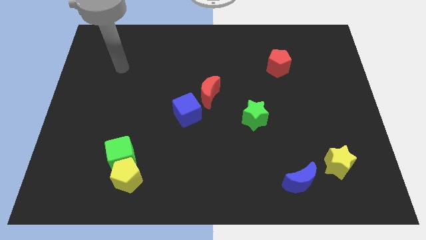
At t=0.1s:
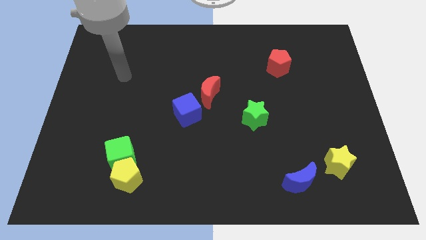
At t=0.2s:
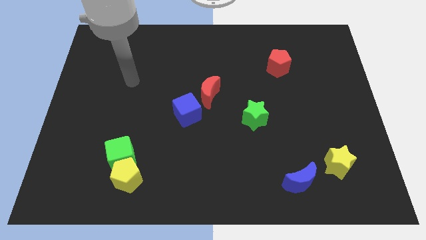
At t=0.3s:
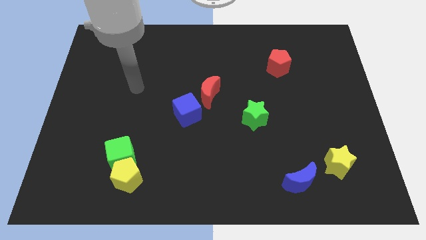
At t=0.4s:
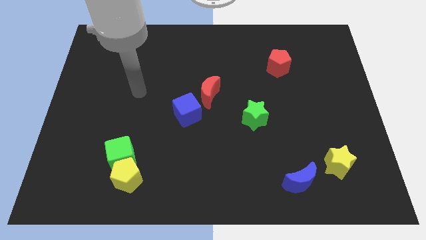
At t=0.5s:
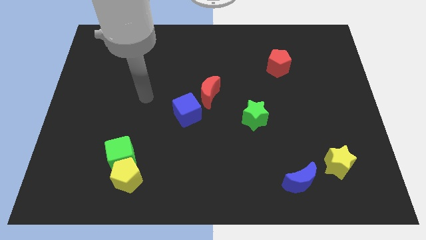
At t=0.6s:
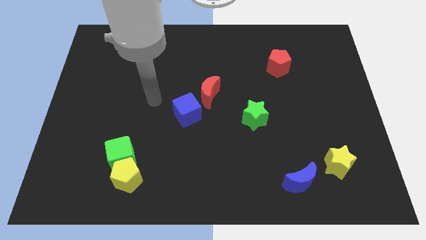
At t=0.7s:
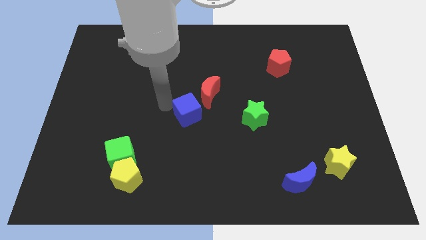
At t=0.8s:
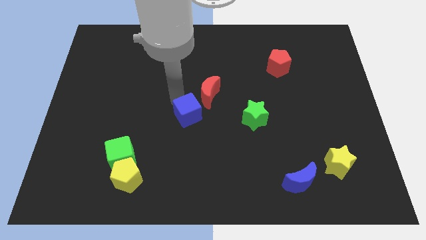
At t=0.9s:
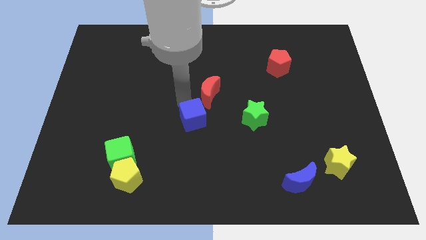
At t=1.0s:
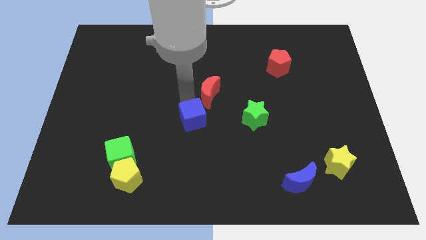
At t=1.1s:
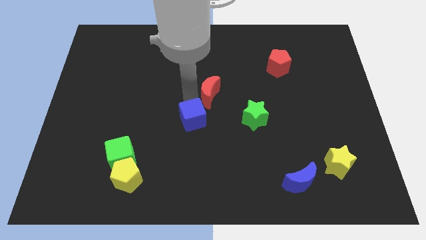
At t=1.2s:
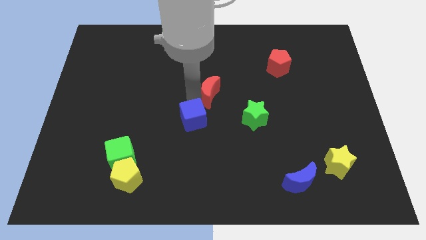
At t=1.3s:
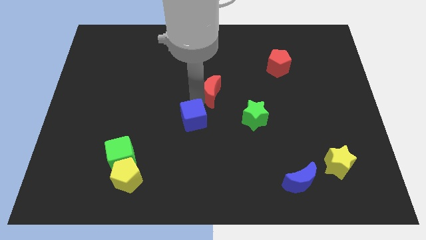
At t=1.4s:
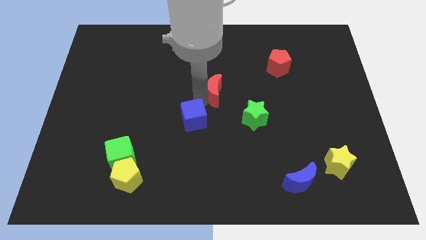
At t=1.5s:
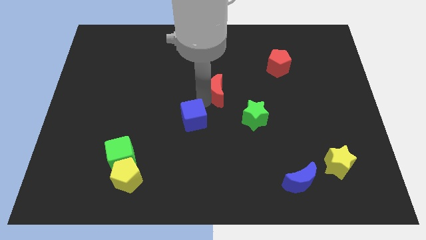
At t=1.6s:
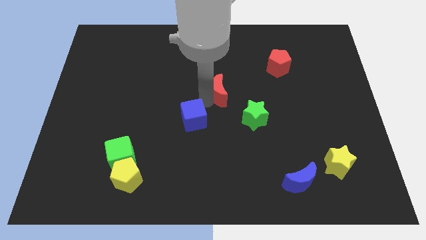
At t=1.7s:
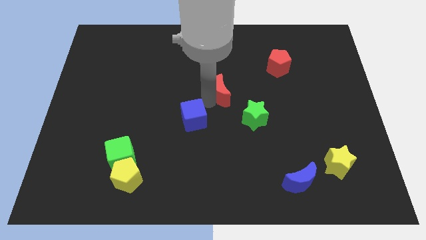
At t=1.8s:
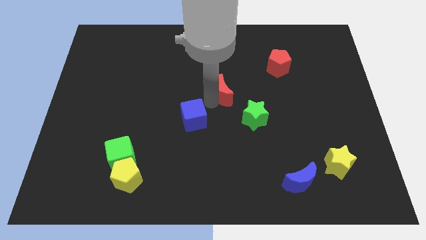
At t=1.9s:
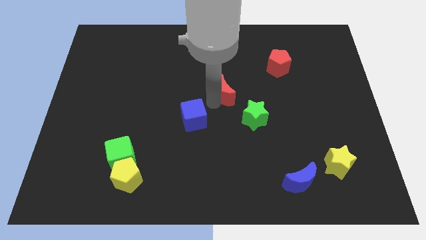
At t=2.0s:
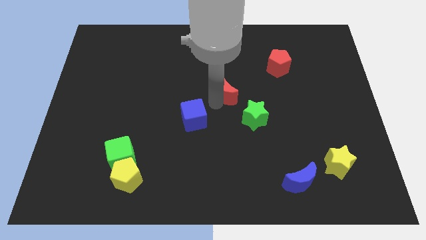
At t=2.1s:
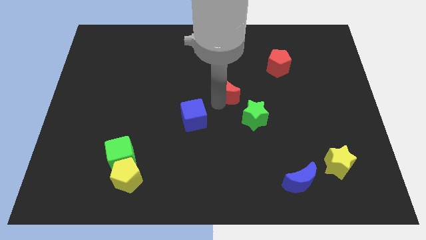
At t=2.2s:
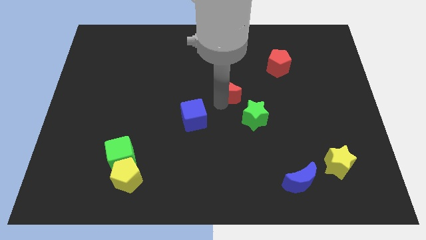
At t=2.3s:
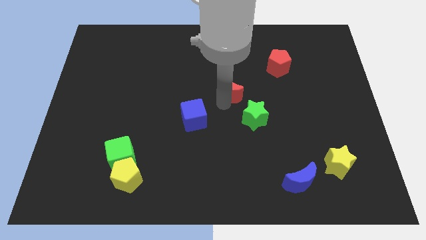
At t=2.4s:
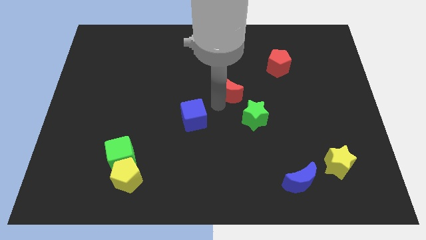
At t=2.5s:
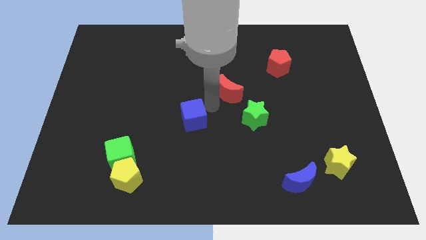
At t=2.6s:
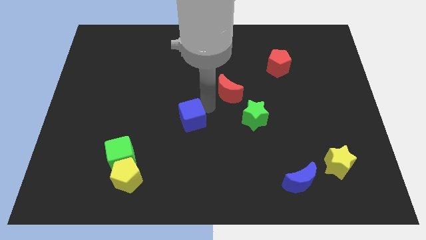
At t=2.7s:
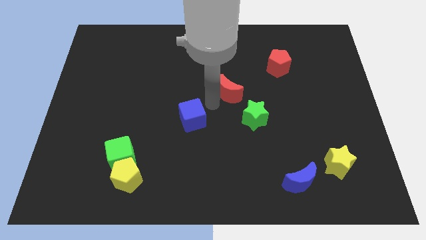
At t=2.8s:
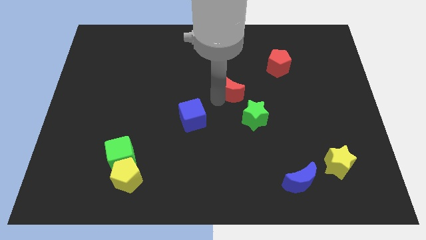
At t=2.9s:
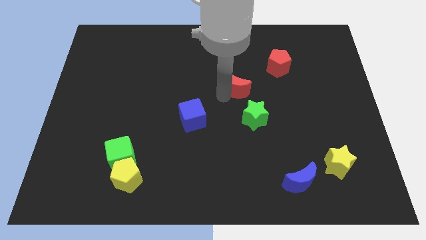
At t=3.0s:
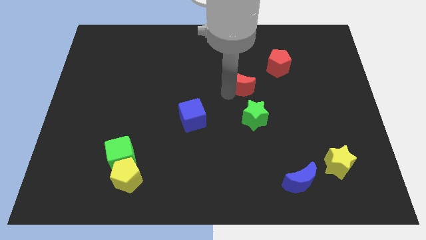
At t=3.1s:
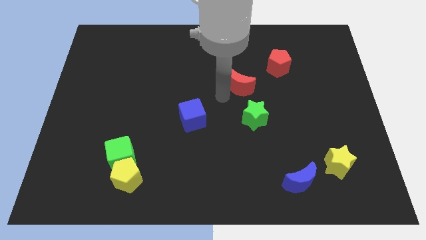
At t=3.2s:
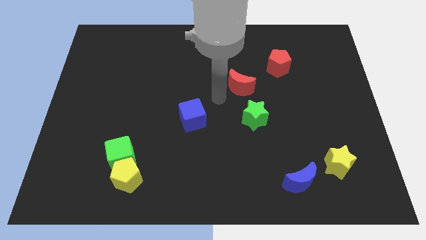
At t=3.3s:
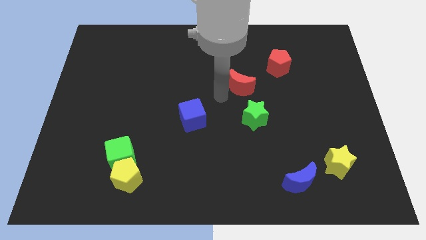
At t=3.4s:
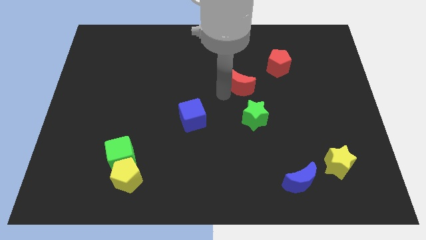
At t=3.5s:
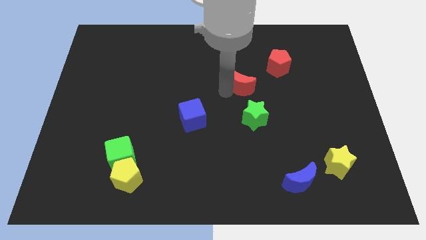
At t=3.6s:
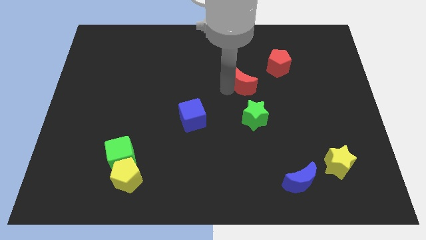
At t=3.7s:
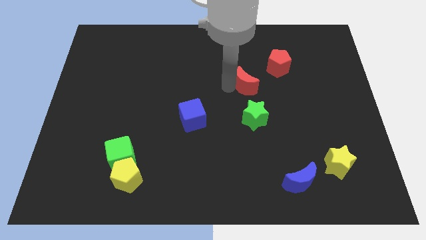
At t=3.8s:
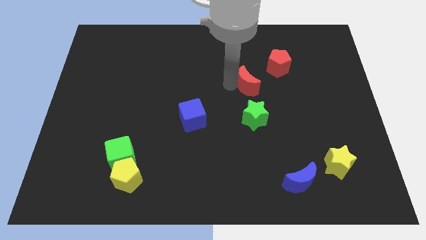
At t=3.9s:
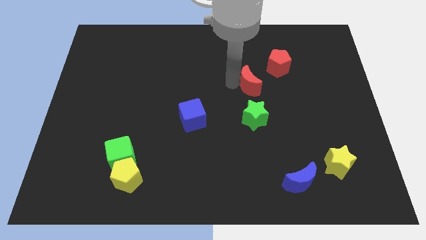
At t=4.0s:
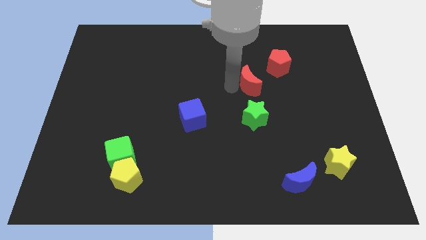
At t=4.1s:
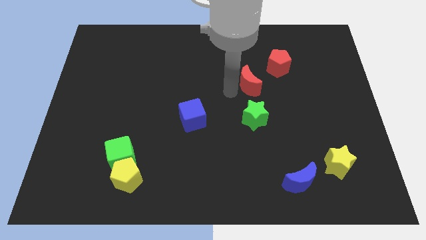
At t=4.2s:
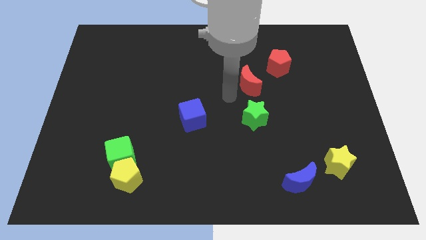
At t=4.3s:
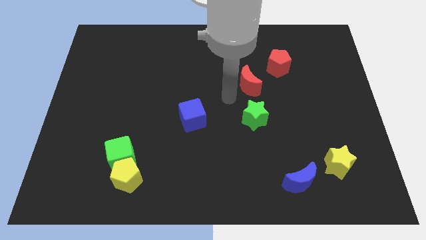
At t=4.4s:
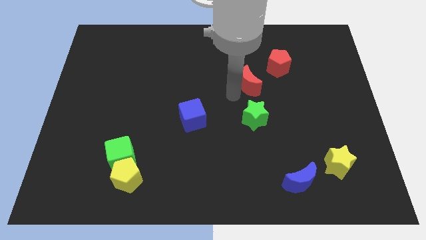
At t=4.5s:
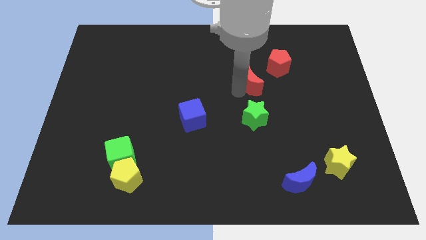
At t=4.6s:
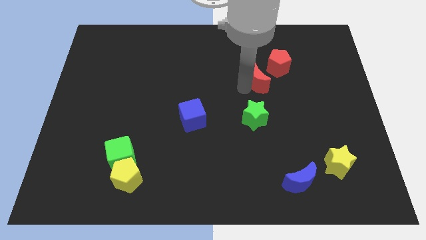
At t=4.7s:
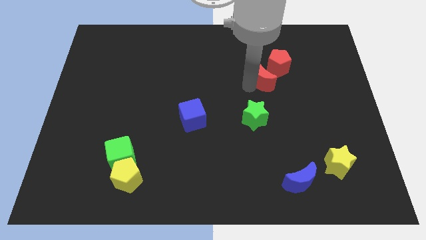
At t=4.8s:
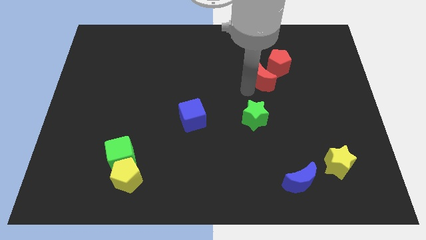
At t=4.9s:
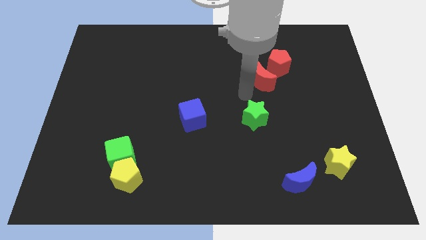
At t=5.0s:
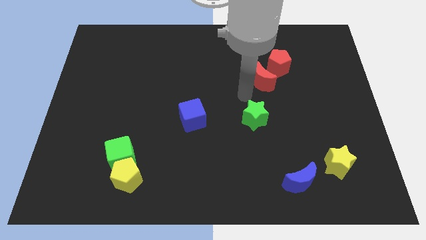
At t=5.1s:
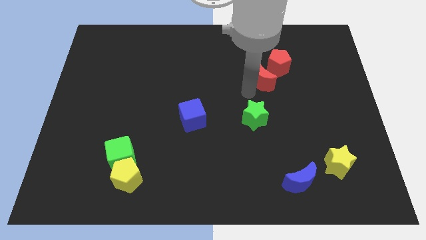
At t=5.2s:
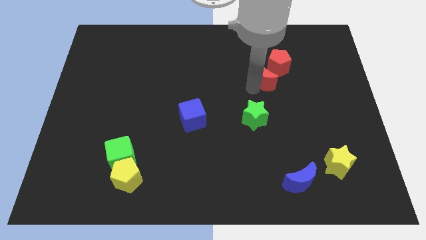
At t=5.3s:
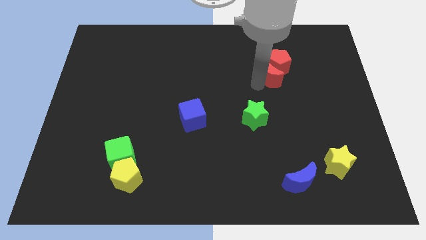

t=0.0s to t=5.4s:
push the red moon close to the red pentagon

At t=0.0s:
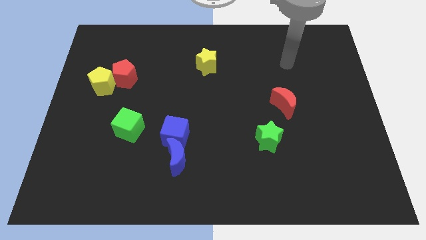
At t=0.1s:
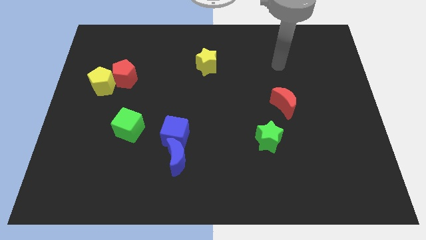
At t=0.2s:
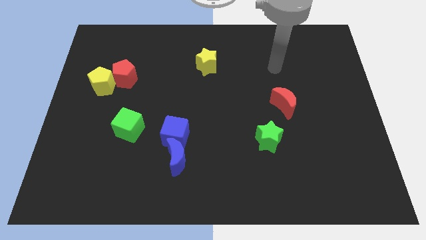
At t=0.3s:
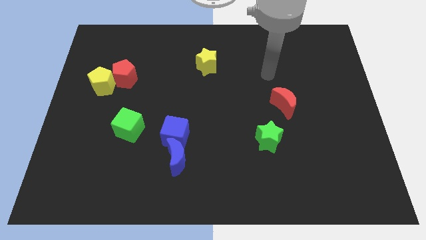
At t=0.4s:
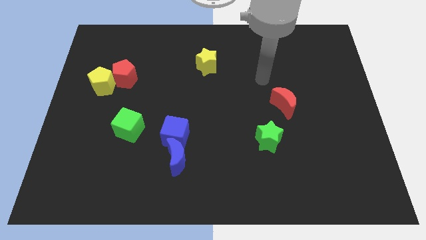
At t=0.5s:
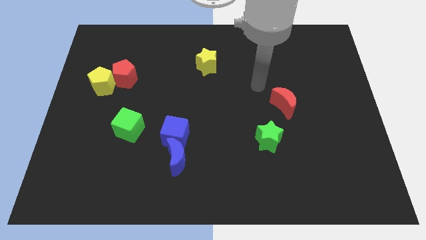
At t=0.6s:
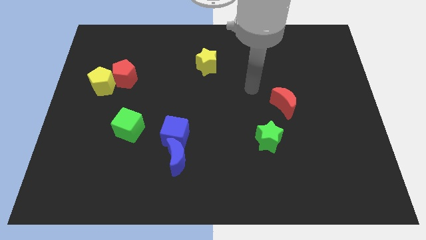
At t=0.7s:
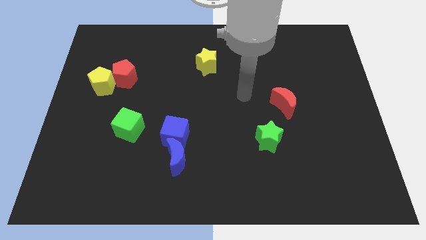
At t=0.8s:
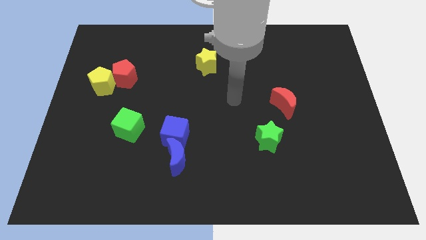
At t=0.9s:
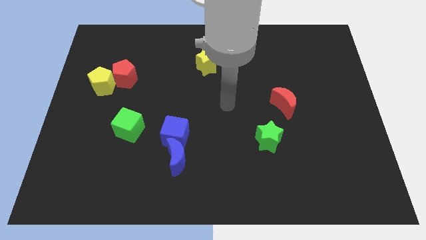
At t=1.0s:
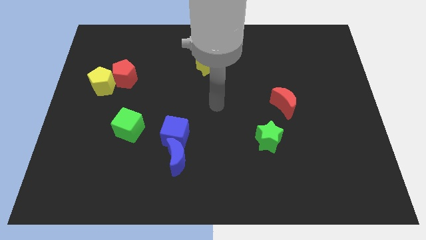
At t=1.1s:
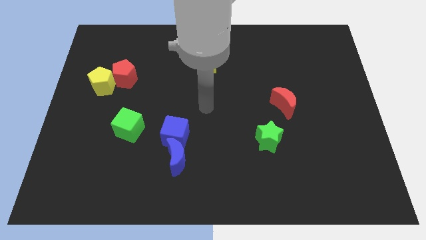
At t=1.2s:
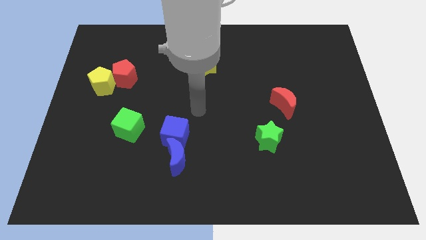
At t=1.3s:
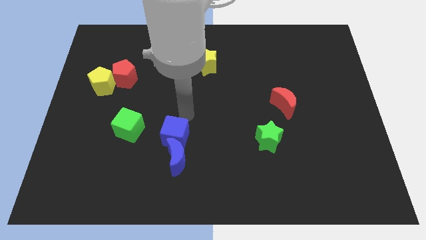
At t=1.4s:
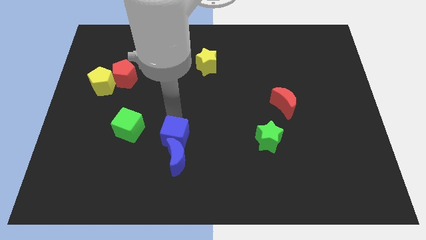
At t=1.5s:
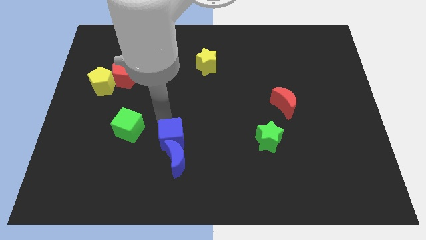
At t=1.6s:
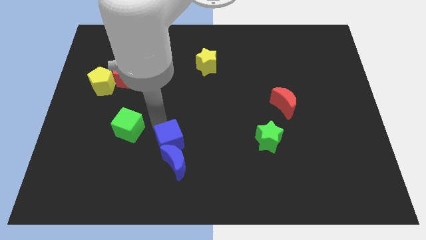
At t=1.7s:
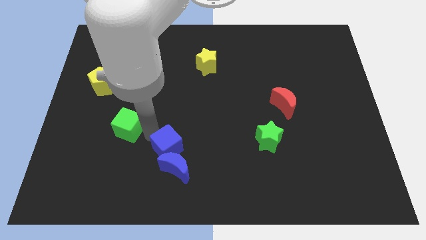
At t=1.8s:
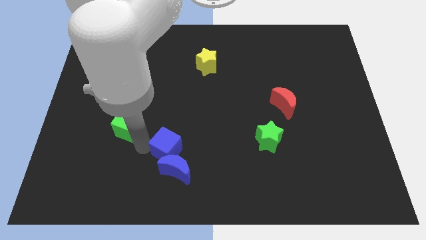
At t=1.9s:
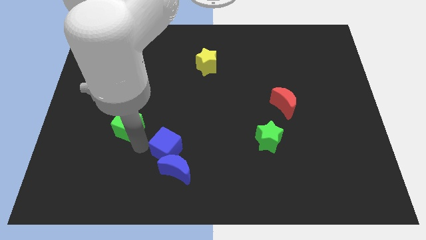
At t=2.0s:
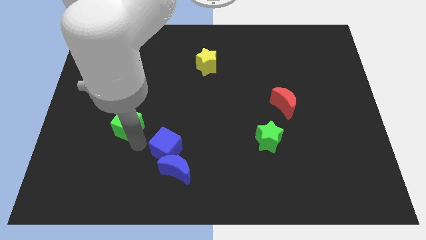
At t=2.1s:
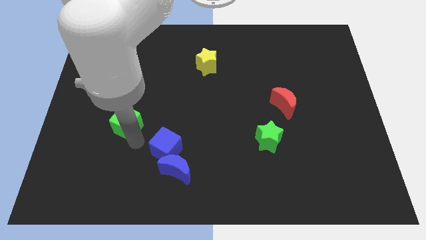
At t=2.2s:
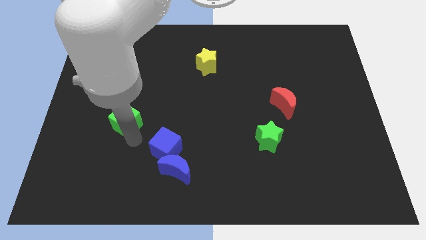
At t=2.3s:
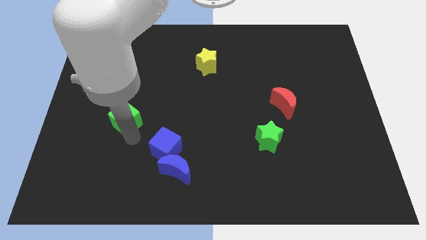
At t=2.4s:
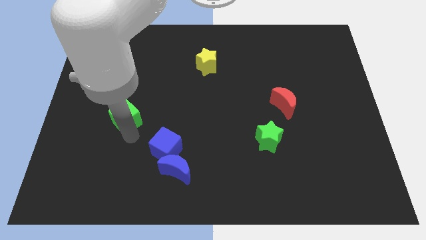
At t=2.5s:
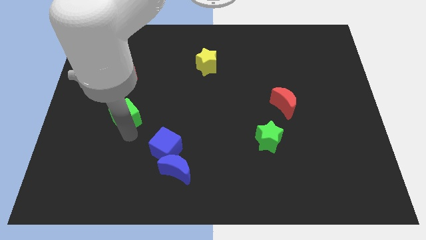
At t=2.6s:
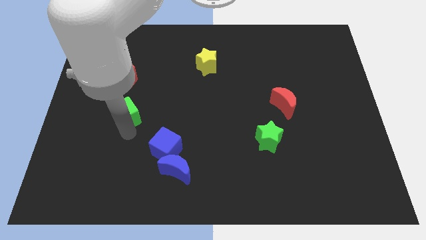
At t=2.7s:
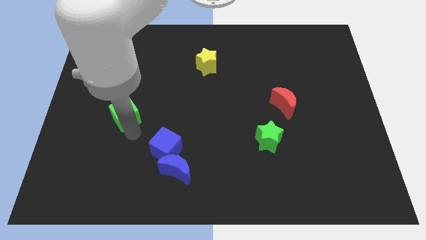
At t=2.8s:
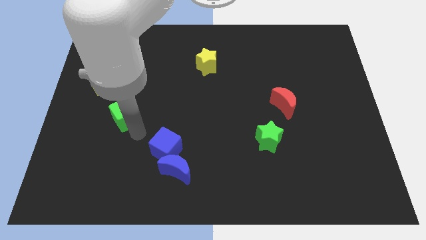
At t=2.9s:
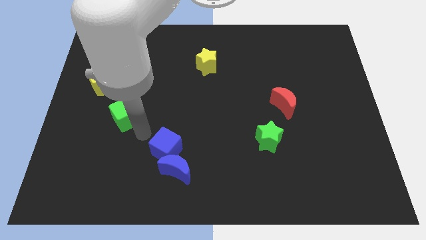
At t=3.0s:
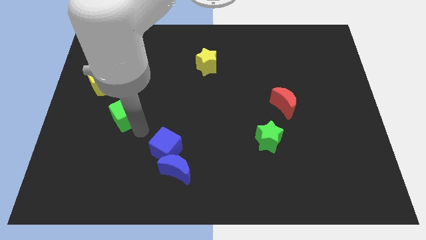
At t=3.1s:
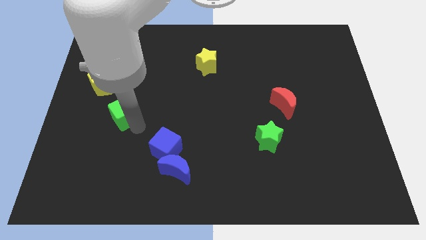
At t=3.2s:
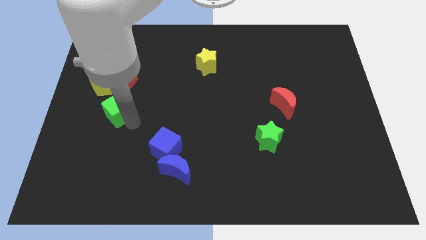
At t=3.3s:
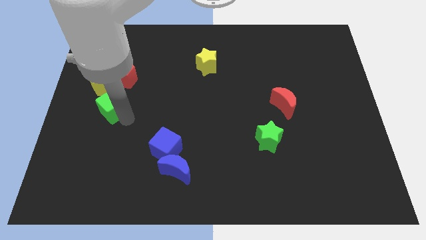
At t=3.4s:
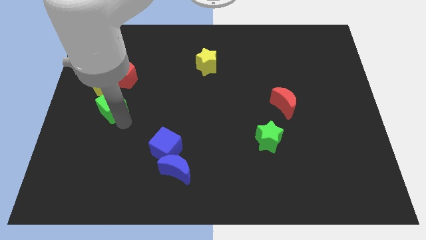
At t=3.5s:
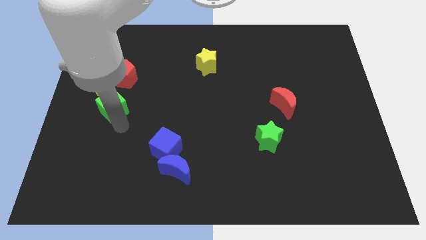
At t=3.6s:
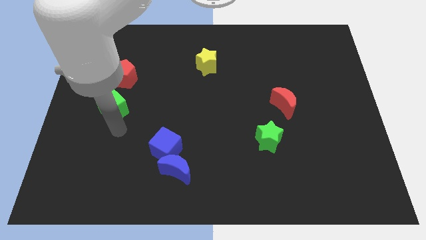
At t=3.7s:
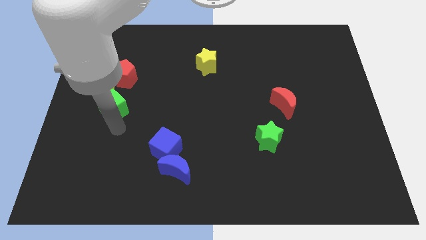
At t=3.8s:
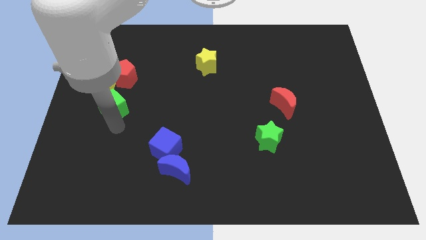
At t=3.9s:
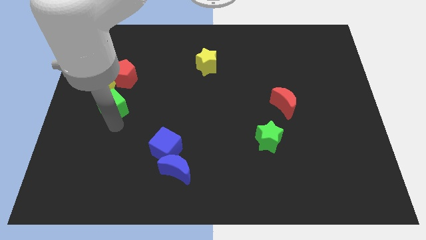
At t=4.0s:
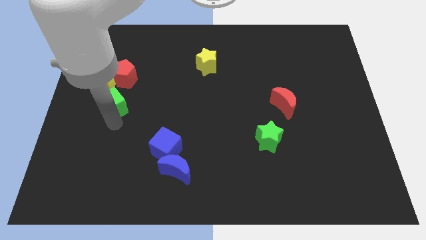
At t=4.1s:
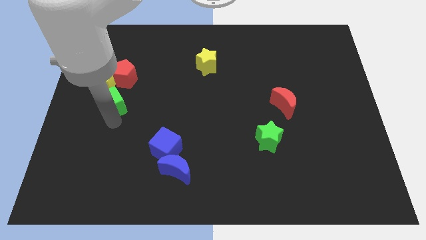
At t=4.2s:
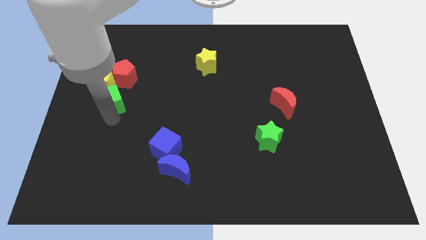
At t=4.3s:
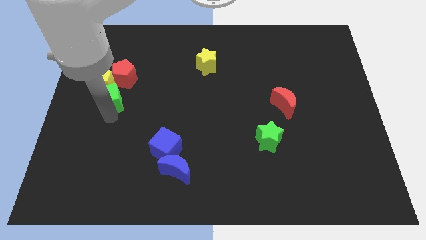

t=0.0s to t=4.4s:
move the green cube towards the yellow pentagon
